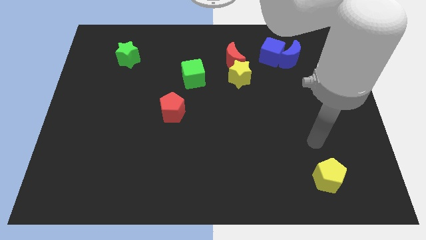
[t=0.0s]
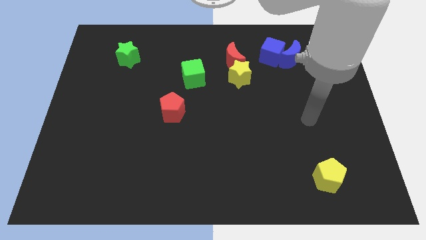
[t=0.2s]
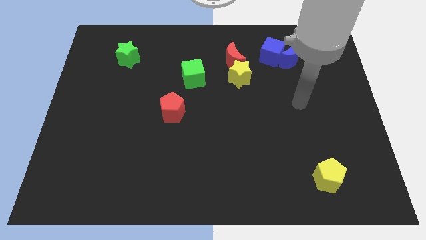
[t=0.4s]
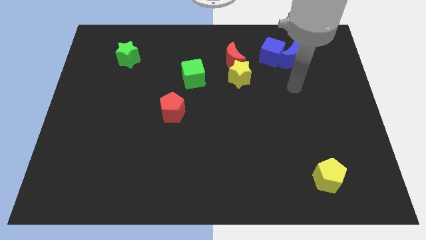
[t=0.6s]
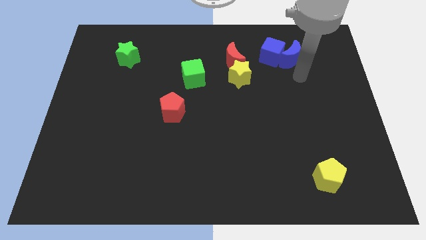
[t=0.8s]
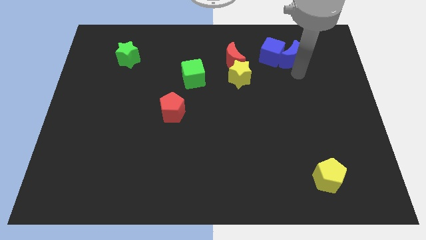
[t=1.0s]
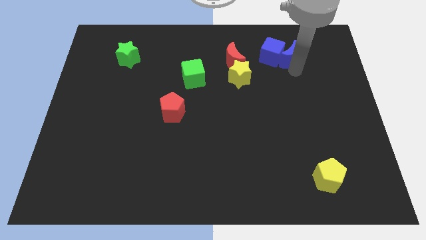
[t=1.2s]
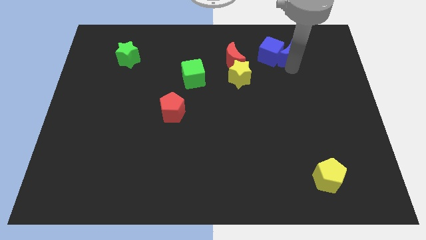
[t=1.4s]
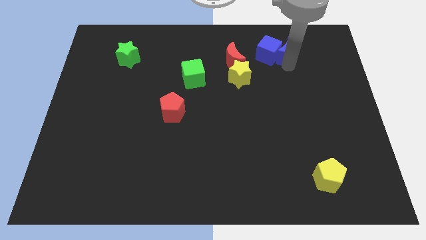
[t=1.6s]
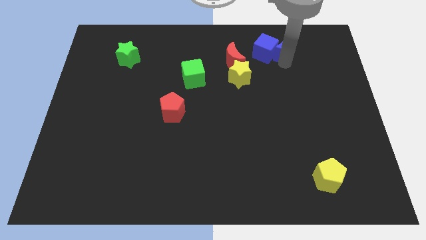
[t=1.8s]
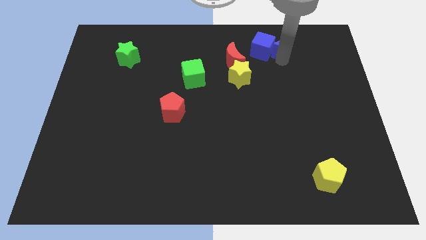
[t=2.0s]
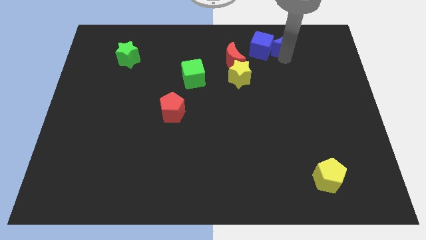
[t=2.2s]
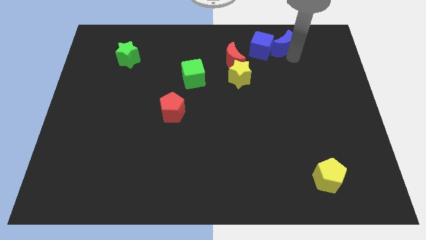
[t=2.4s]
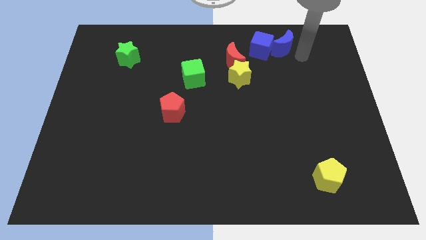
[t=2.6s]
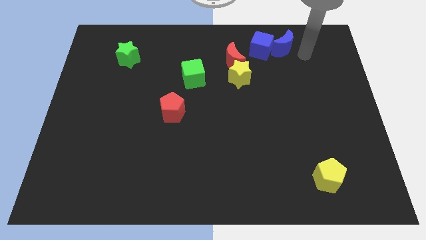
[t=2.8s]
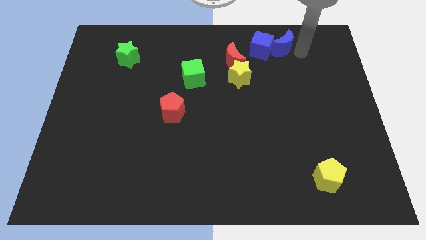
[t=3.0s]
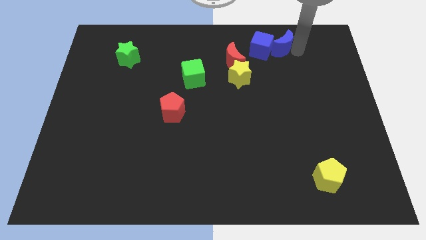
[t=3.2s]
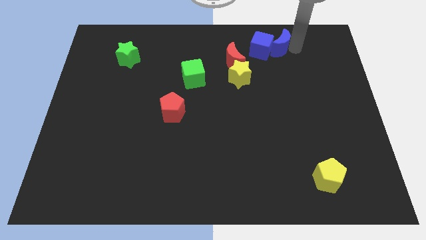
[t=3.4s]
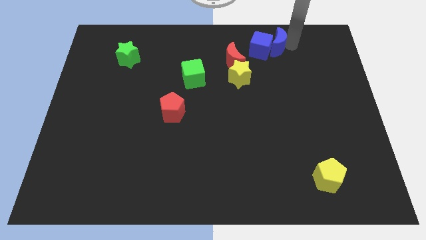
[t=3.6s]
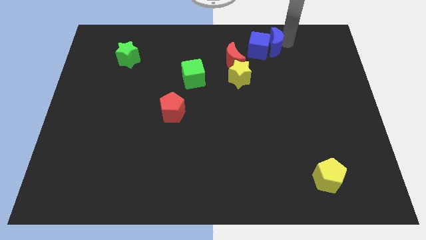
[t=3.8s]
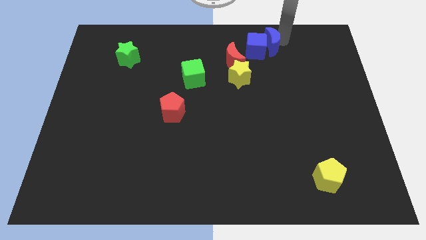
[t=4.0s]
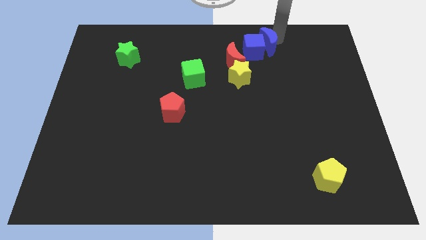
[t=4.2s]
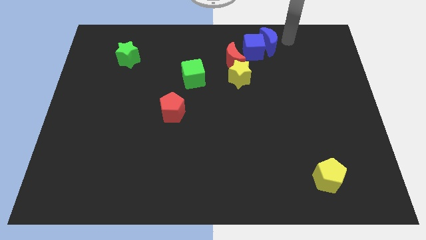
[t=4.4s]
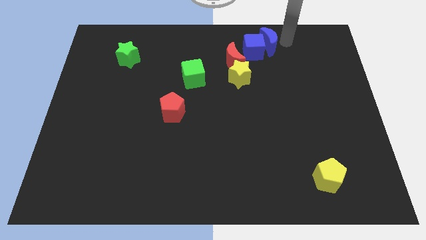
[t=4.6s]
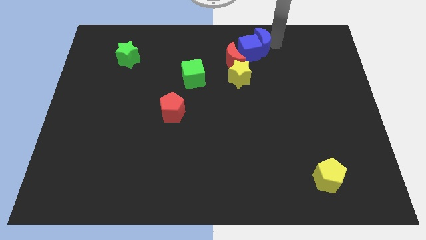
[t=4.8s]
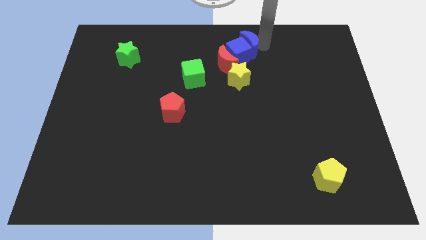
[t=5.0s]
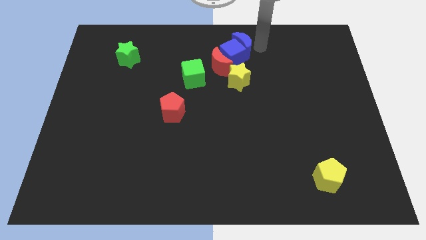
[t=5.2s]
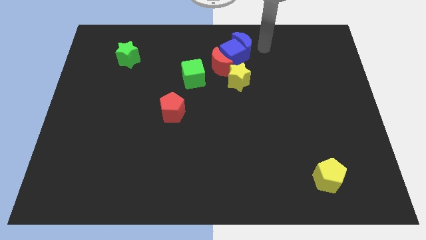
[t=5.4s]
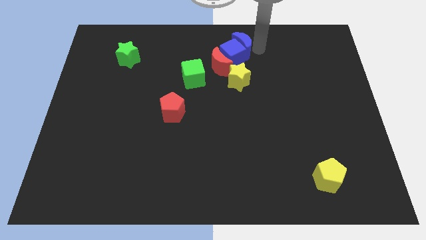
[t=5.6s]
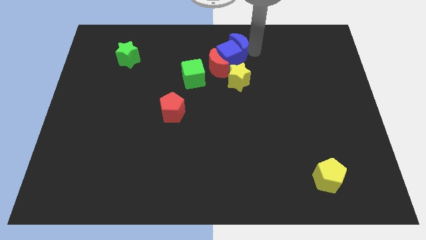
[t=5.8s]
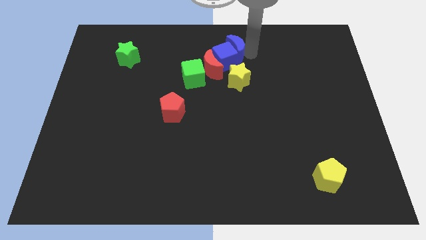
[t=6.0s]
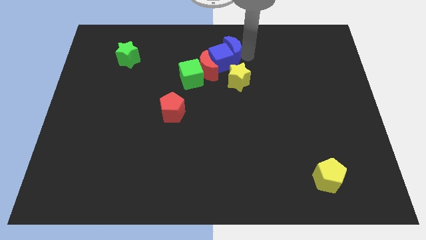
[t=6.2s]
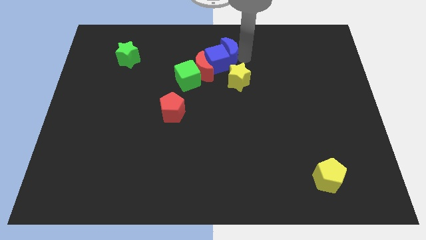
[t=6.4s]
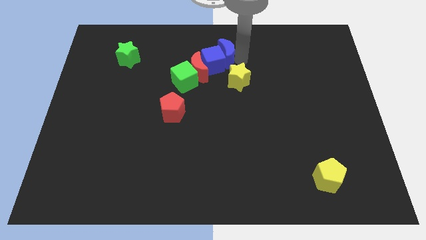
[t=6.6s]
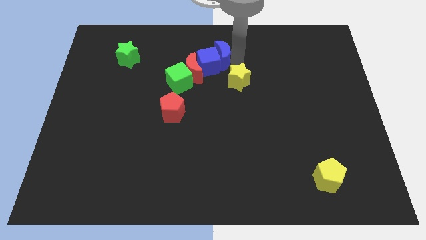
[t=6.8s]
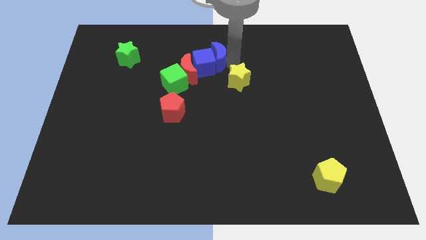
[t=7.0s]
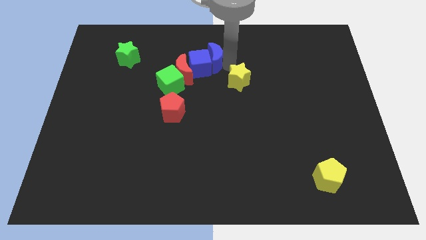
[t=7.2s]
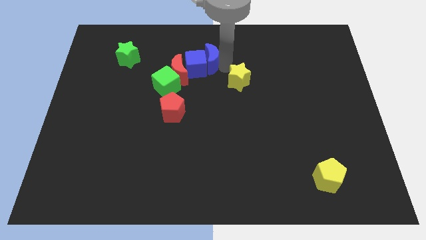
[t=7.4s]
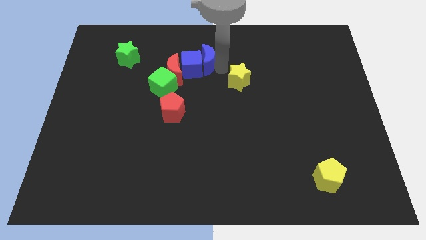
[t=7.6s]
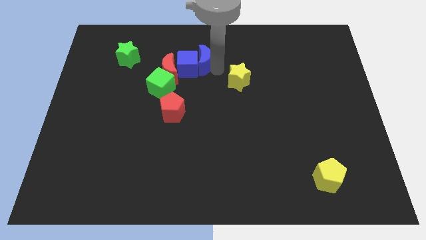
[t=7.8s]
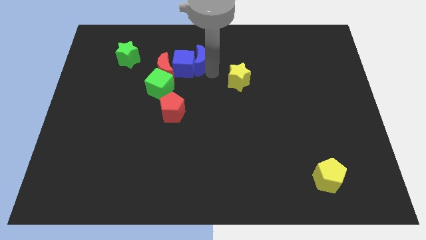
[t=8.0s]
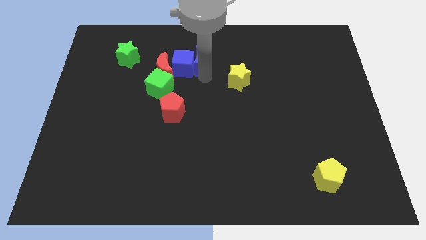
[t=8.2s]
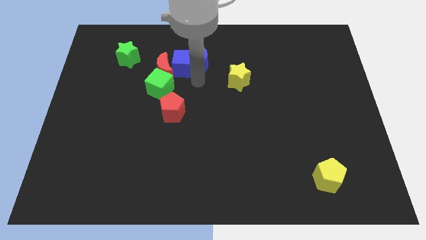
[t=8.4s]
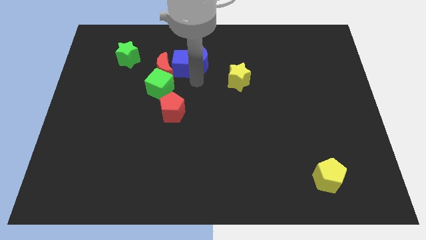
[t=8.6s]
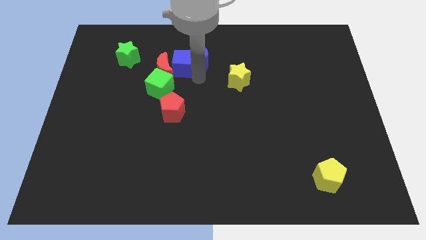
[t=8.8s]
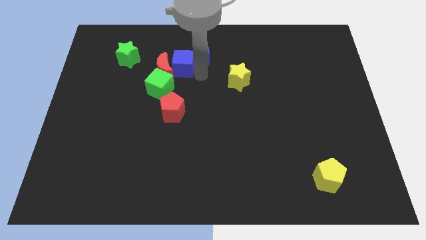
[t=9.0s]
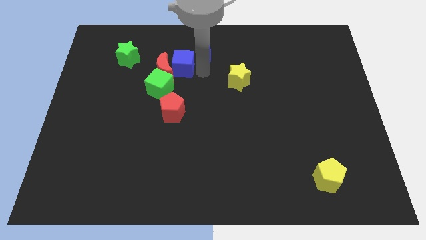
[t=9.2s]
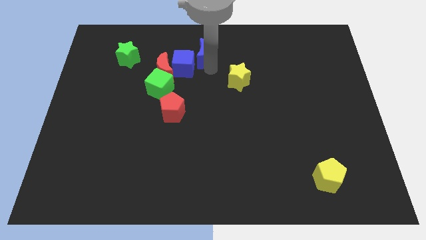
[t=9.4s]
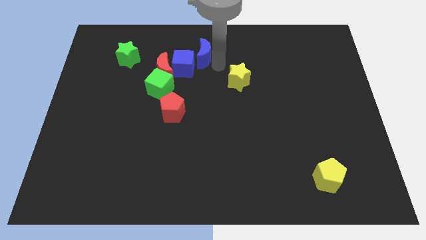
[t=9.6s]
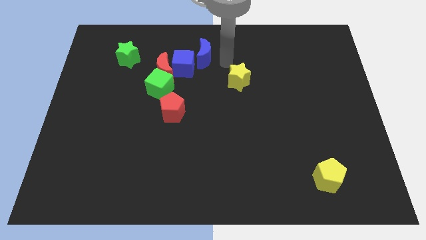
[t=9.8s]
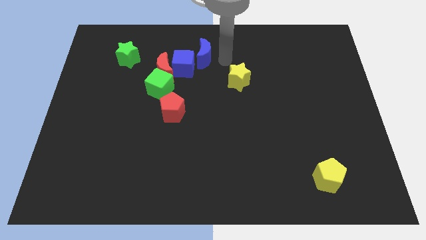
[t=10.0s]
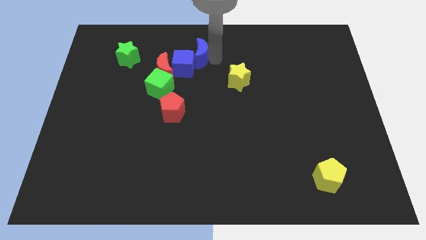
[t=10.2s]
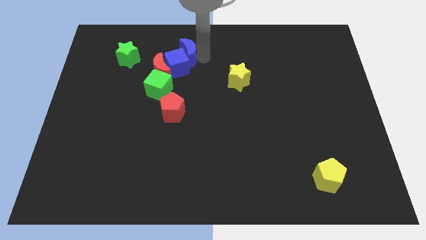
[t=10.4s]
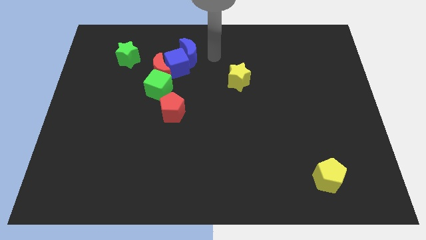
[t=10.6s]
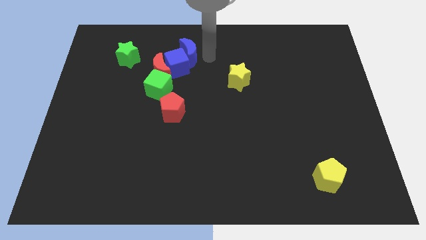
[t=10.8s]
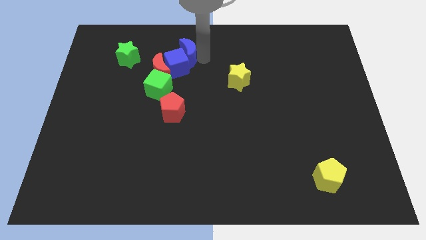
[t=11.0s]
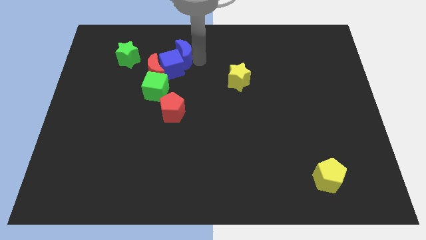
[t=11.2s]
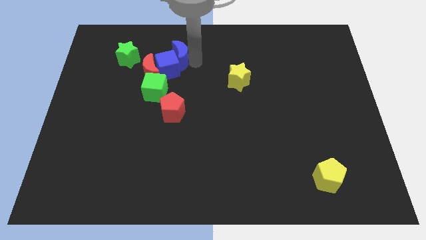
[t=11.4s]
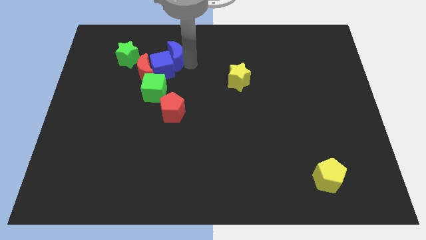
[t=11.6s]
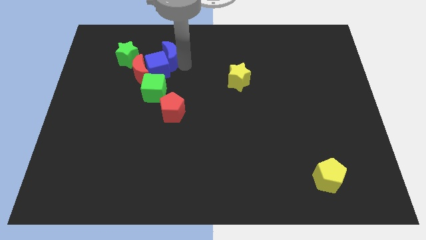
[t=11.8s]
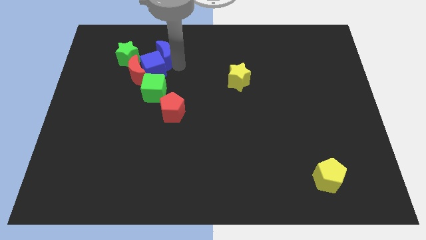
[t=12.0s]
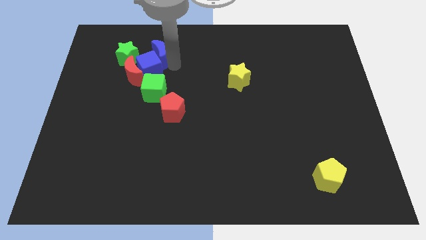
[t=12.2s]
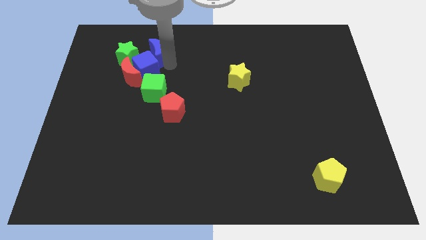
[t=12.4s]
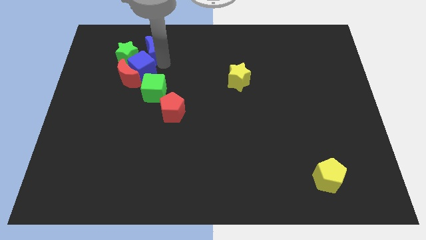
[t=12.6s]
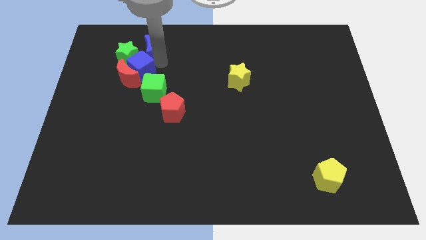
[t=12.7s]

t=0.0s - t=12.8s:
put the blue moon close to the green star

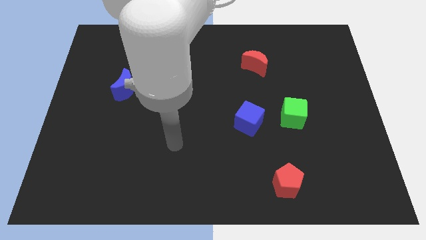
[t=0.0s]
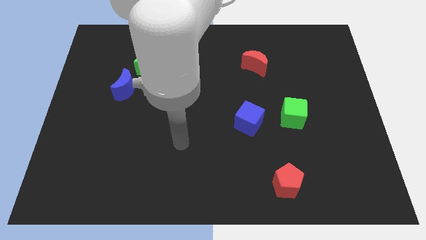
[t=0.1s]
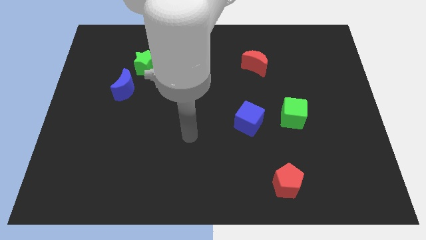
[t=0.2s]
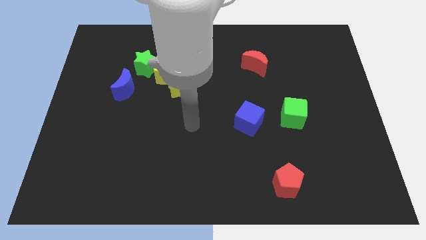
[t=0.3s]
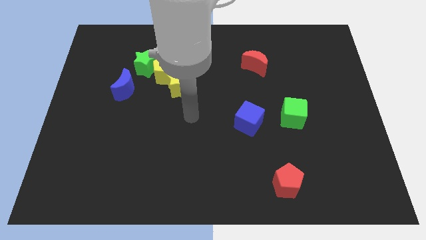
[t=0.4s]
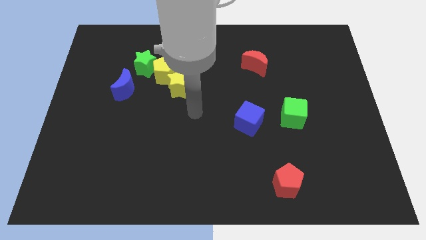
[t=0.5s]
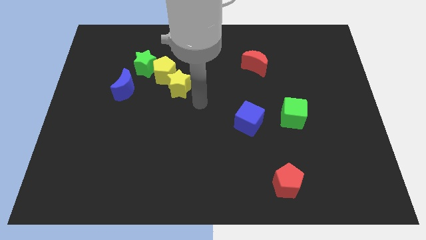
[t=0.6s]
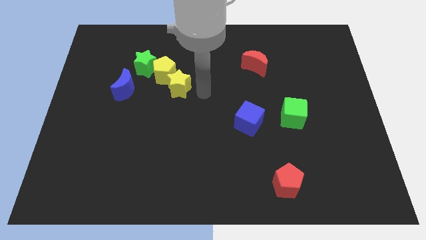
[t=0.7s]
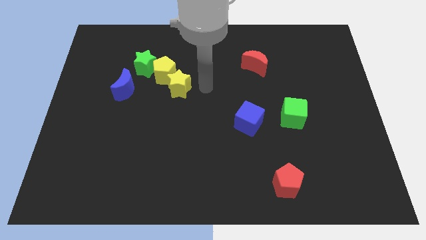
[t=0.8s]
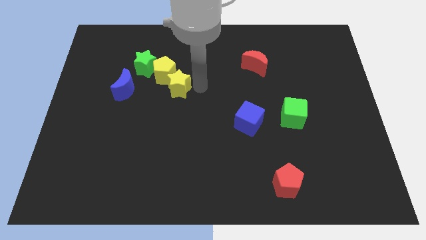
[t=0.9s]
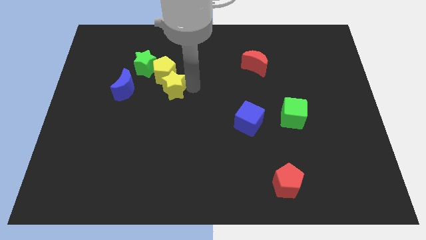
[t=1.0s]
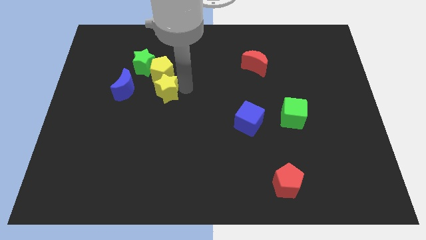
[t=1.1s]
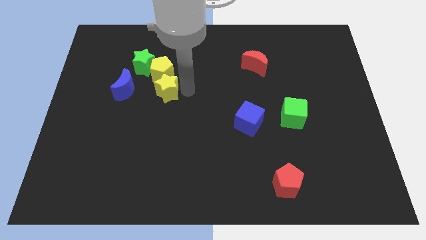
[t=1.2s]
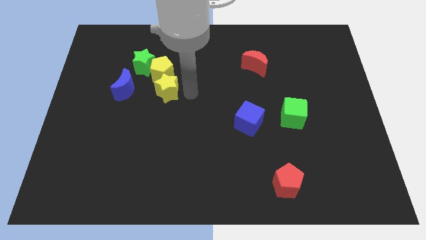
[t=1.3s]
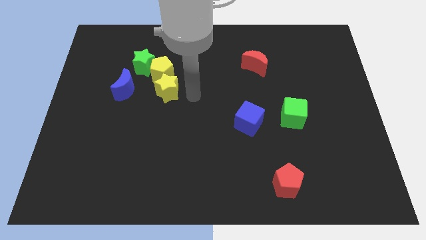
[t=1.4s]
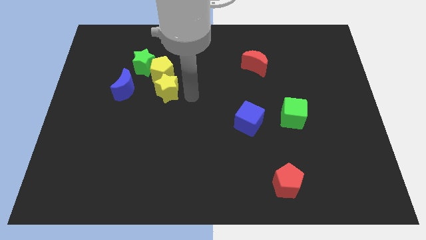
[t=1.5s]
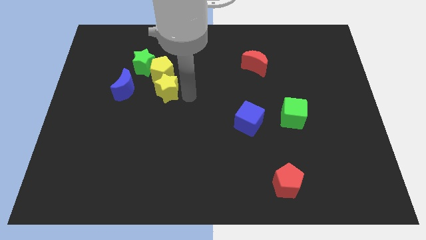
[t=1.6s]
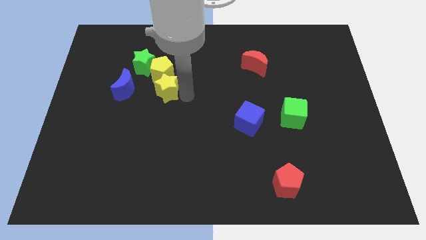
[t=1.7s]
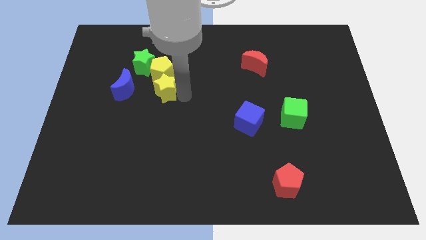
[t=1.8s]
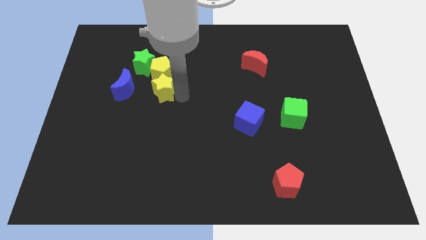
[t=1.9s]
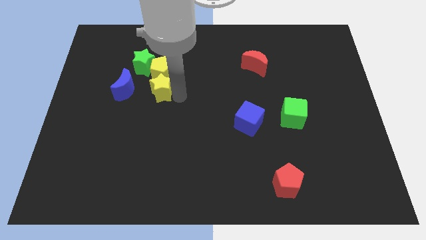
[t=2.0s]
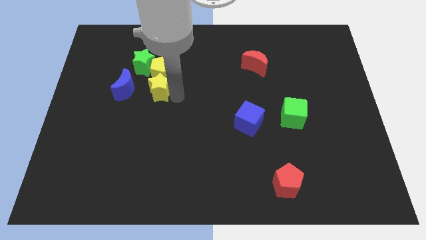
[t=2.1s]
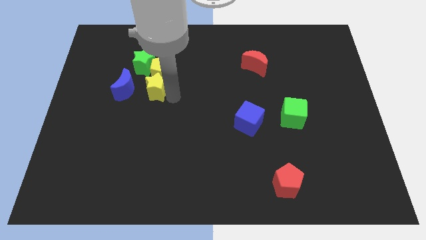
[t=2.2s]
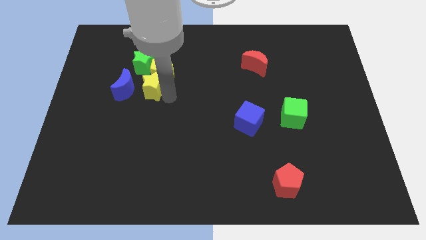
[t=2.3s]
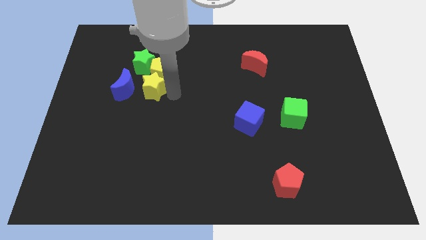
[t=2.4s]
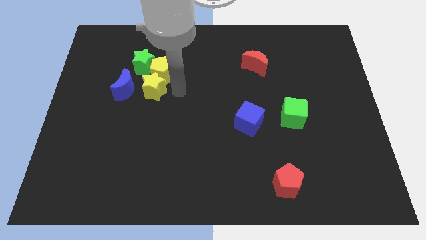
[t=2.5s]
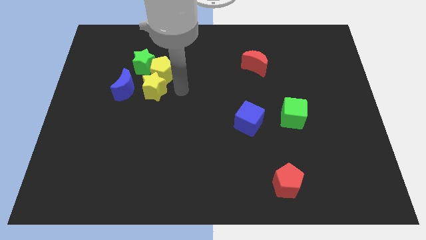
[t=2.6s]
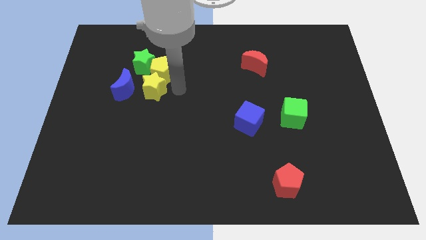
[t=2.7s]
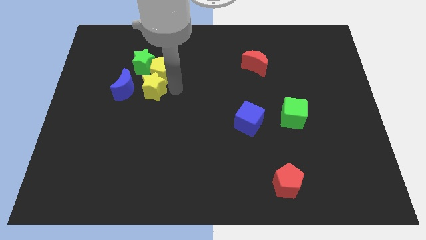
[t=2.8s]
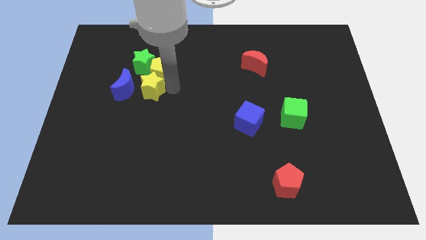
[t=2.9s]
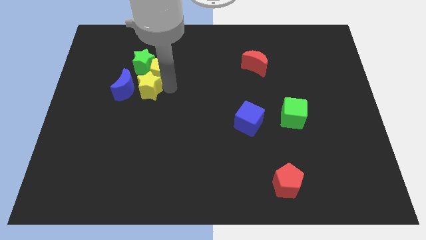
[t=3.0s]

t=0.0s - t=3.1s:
push the yellow star close to the blue moon
